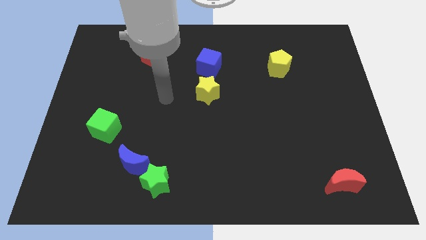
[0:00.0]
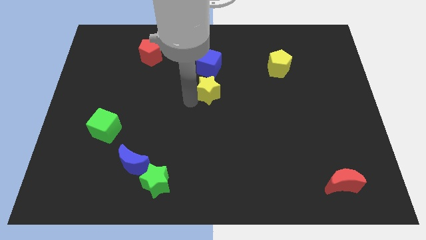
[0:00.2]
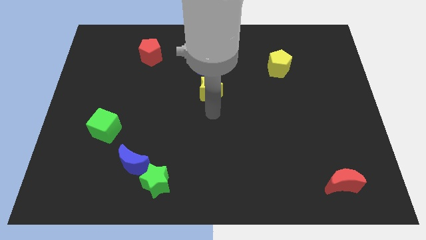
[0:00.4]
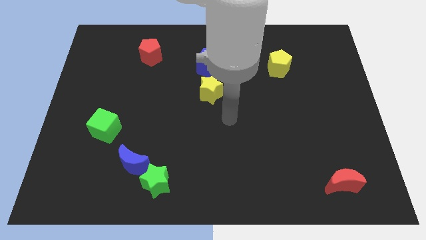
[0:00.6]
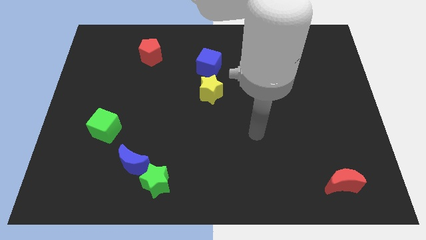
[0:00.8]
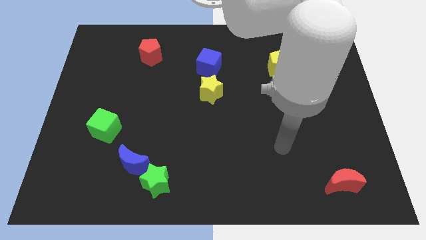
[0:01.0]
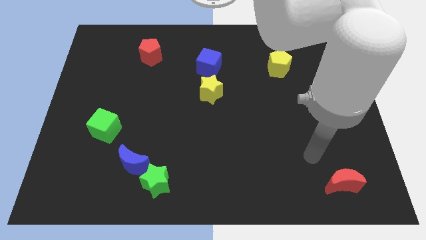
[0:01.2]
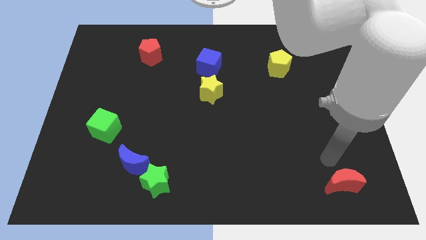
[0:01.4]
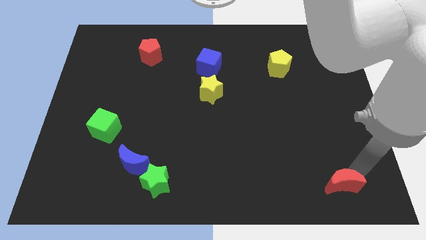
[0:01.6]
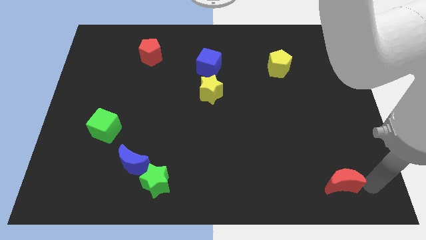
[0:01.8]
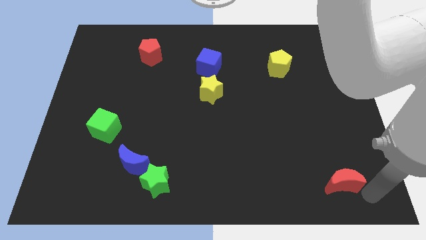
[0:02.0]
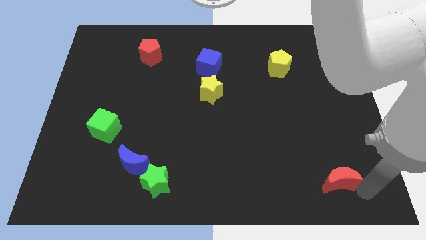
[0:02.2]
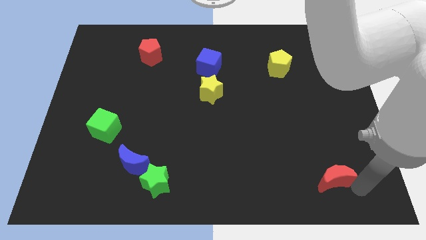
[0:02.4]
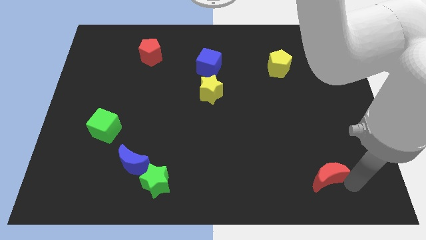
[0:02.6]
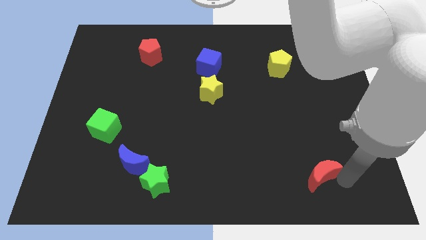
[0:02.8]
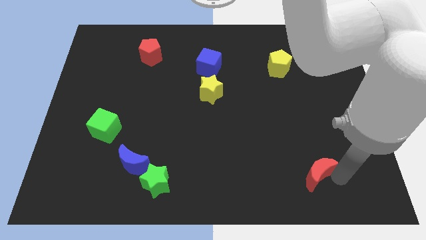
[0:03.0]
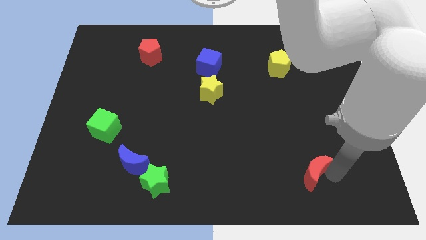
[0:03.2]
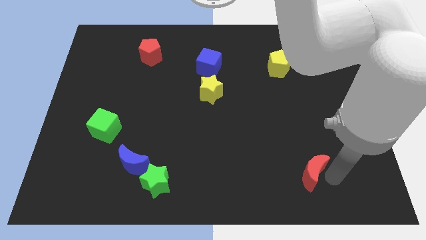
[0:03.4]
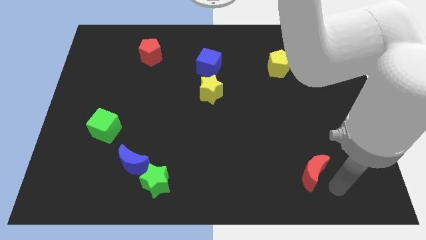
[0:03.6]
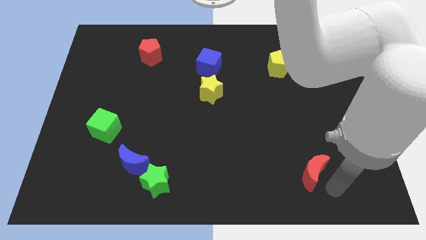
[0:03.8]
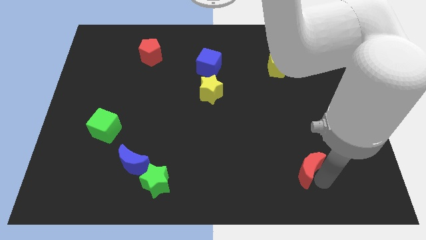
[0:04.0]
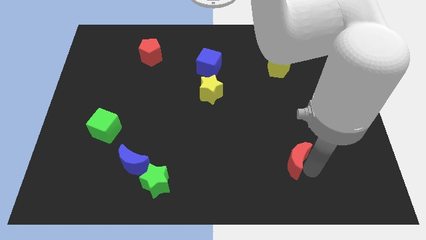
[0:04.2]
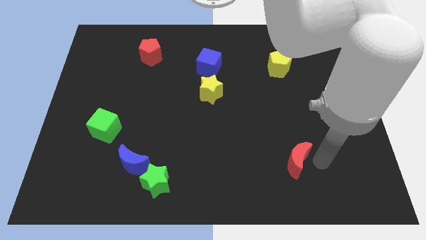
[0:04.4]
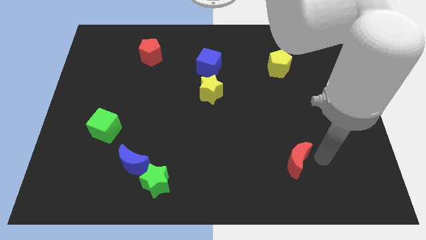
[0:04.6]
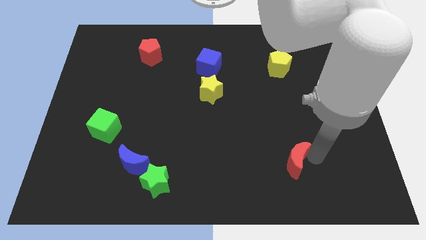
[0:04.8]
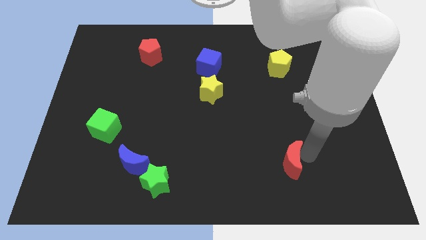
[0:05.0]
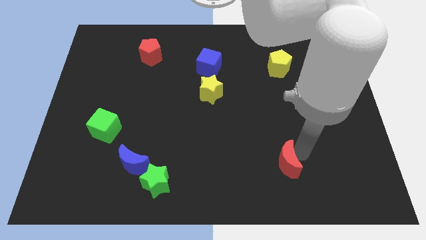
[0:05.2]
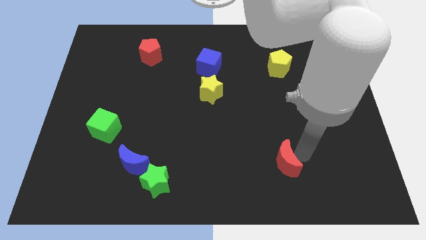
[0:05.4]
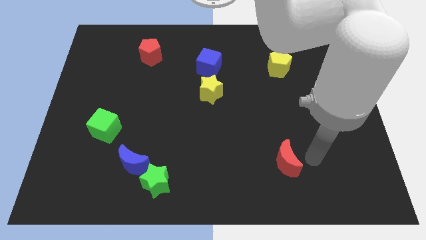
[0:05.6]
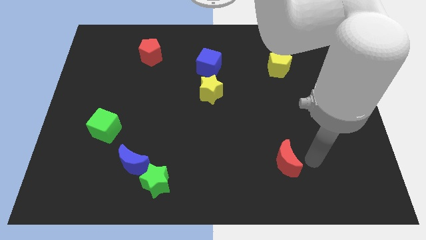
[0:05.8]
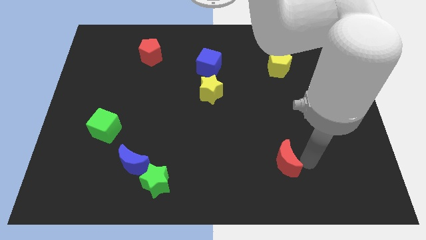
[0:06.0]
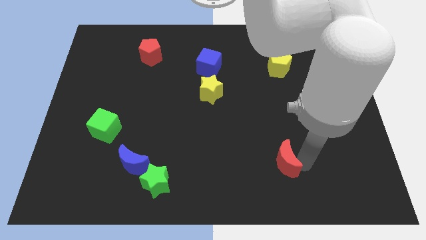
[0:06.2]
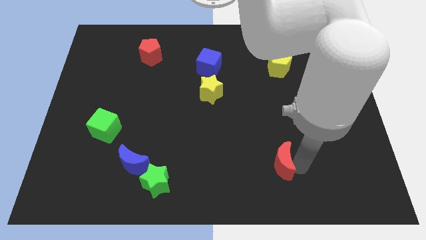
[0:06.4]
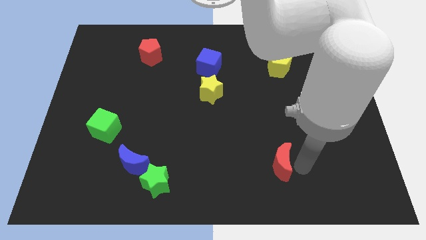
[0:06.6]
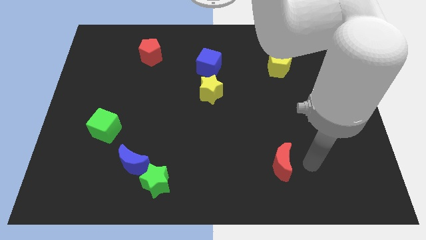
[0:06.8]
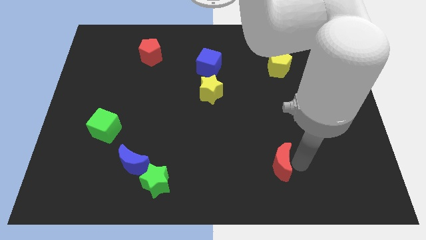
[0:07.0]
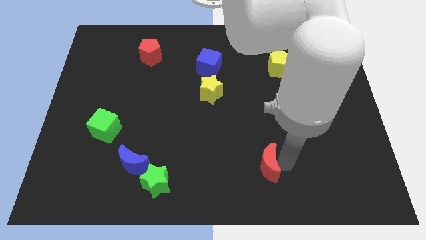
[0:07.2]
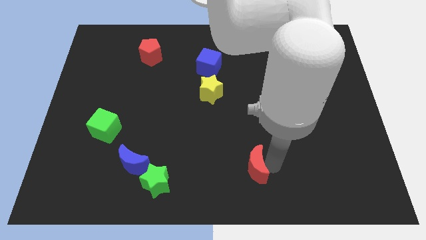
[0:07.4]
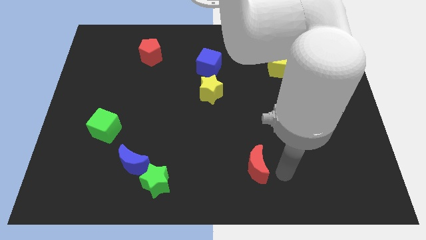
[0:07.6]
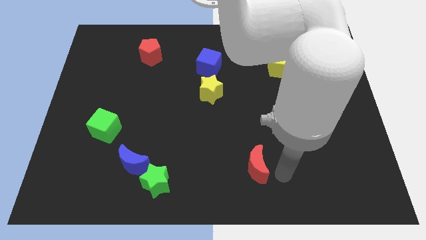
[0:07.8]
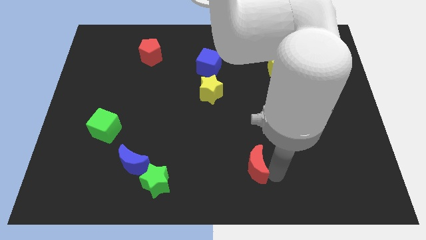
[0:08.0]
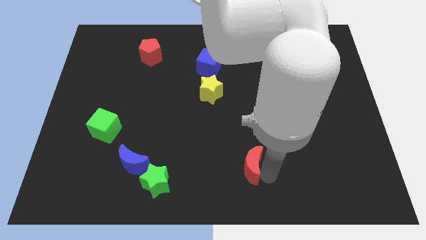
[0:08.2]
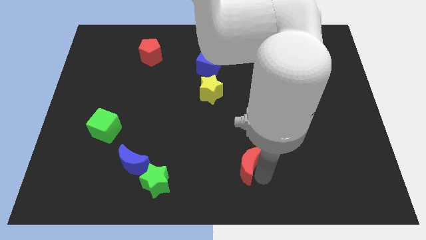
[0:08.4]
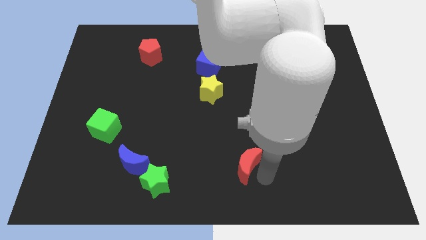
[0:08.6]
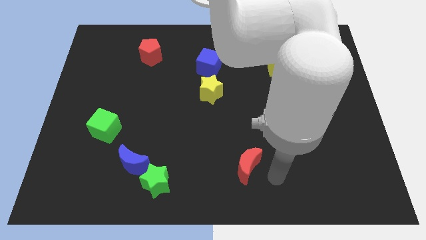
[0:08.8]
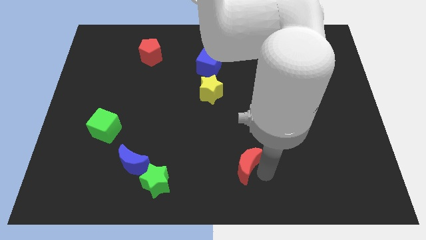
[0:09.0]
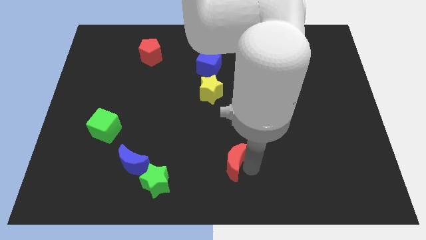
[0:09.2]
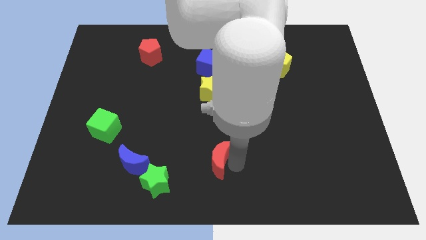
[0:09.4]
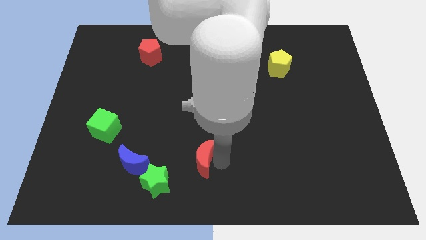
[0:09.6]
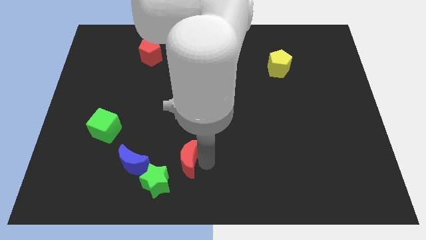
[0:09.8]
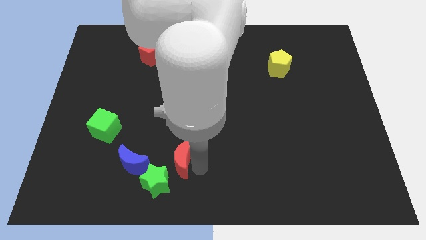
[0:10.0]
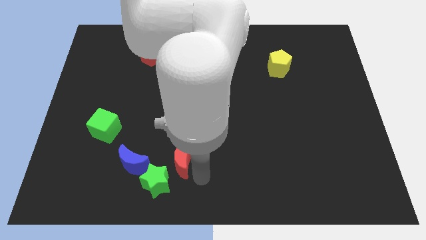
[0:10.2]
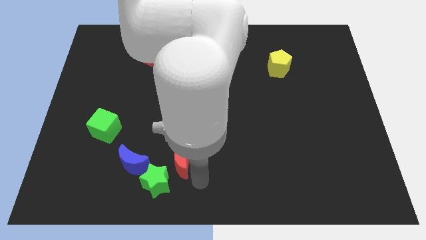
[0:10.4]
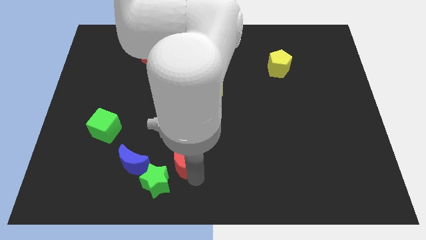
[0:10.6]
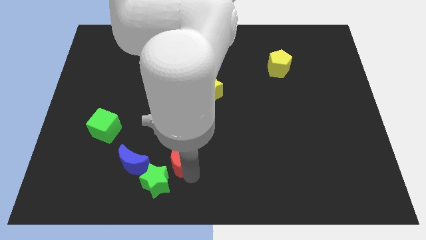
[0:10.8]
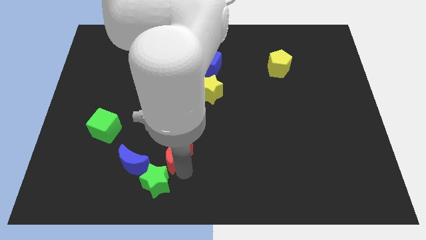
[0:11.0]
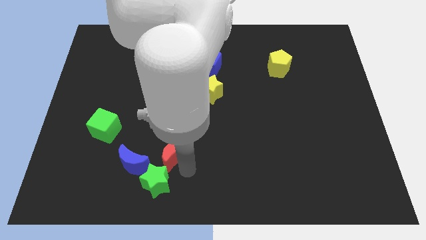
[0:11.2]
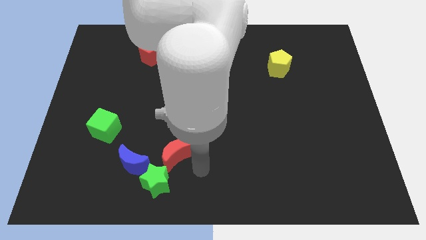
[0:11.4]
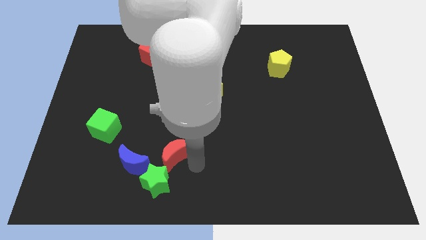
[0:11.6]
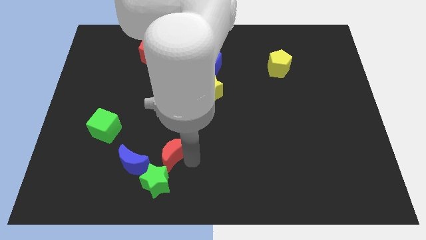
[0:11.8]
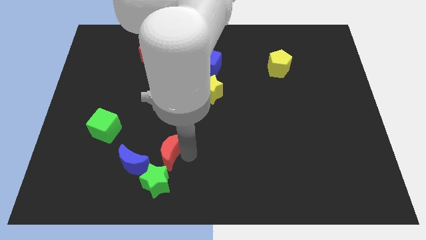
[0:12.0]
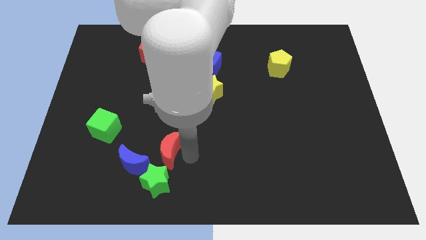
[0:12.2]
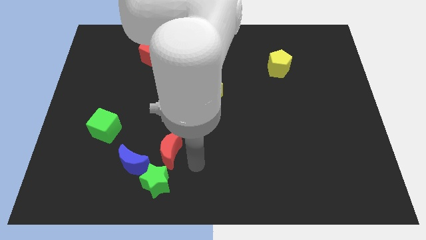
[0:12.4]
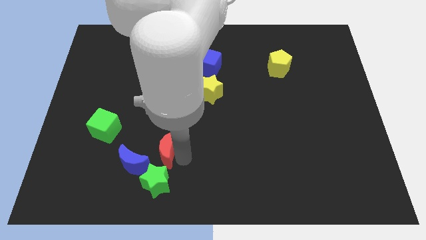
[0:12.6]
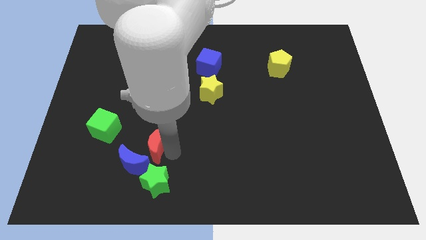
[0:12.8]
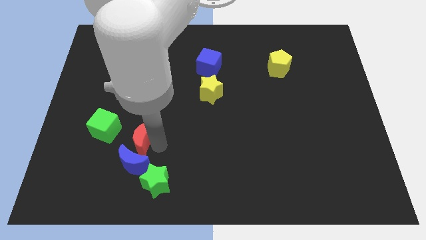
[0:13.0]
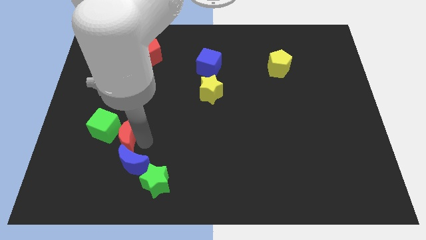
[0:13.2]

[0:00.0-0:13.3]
push the red moon towards the green cube

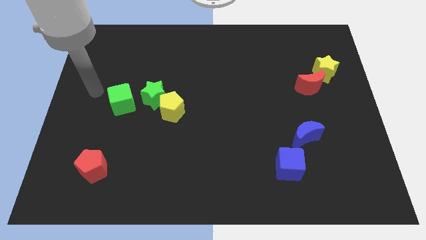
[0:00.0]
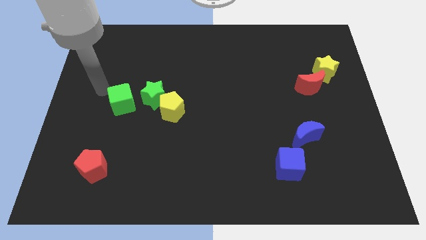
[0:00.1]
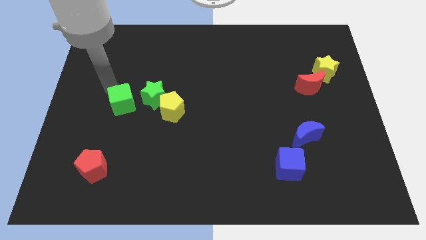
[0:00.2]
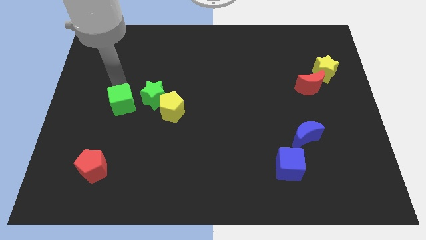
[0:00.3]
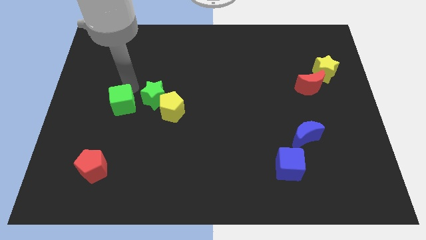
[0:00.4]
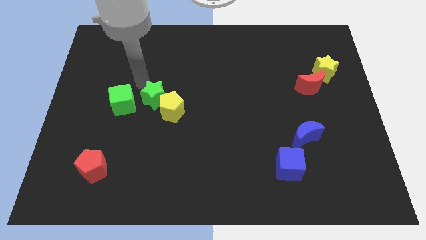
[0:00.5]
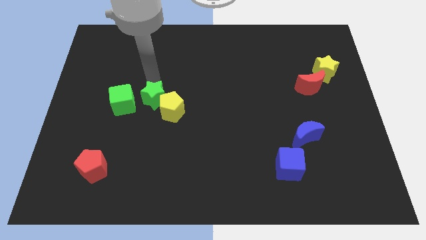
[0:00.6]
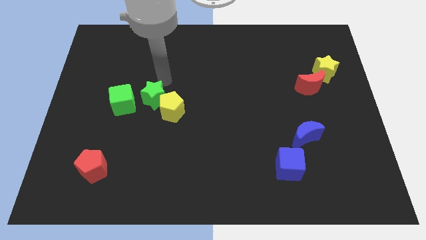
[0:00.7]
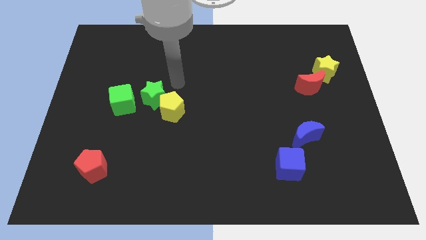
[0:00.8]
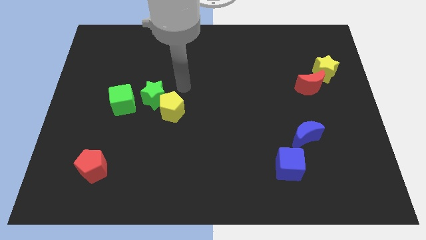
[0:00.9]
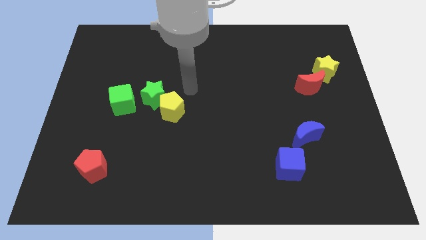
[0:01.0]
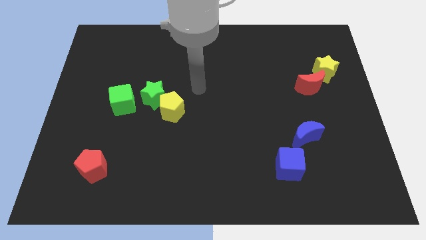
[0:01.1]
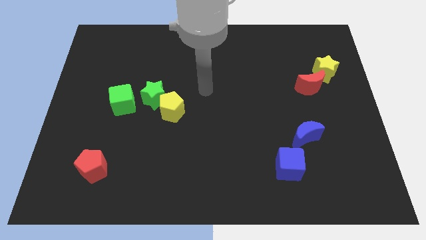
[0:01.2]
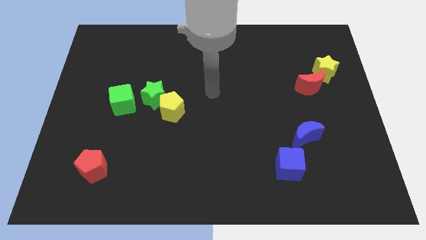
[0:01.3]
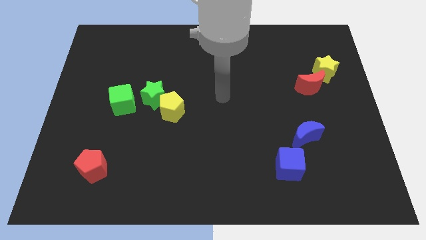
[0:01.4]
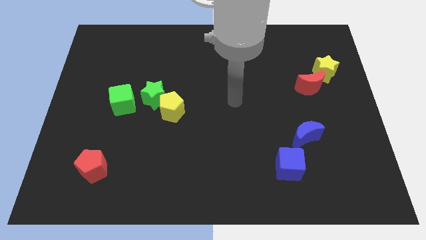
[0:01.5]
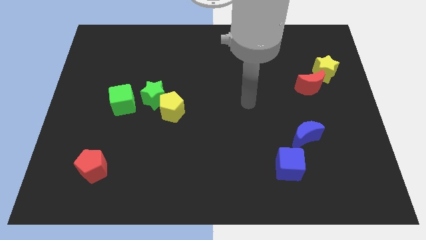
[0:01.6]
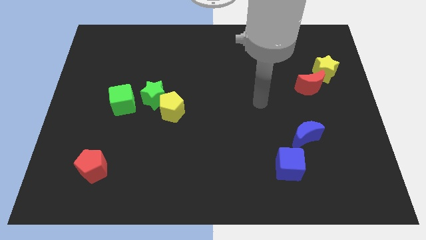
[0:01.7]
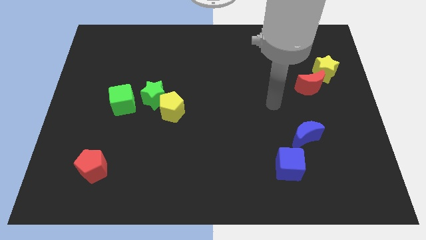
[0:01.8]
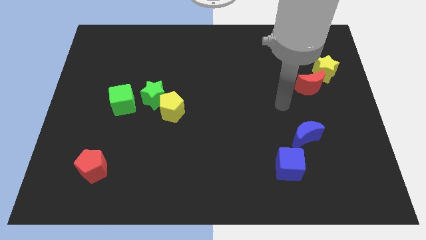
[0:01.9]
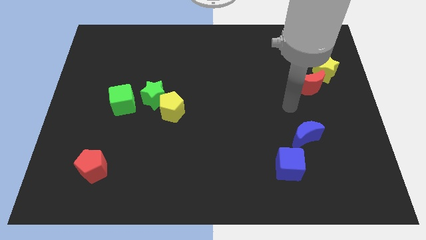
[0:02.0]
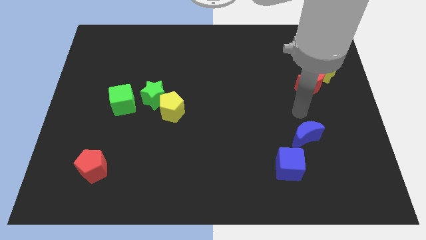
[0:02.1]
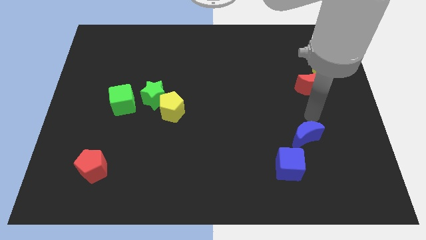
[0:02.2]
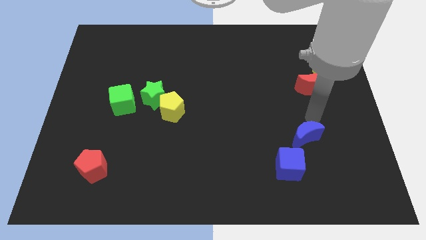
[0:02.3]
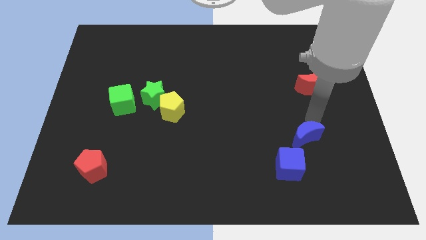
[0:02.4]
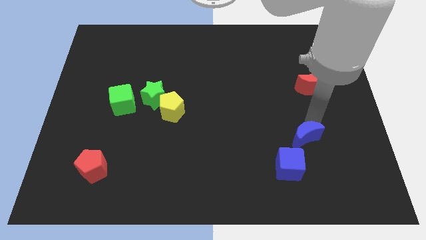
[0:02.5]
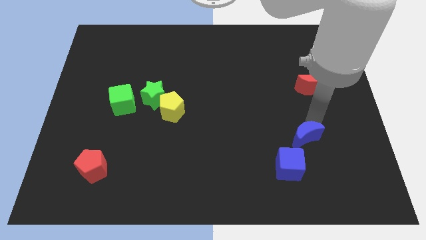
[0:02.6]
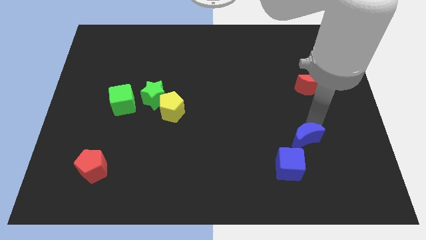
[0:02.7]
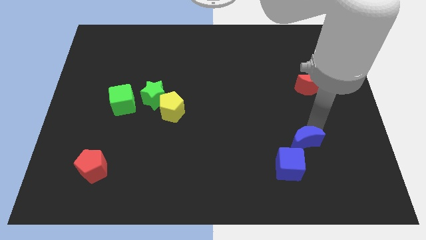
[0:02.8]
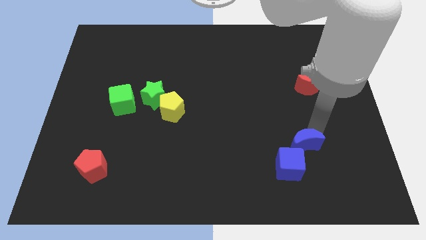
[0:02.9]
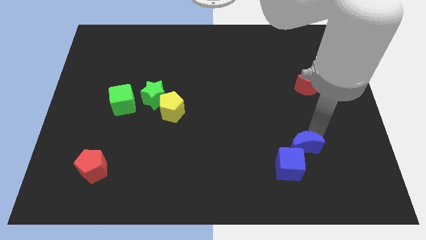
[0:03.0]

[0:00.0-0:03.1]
put the blue moon to the blue cube
